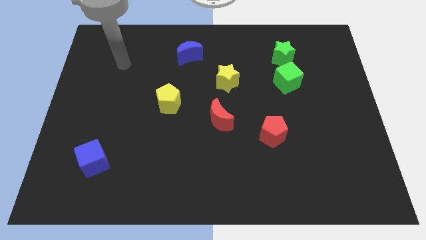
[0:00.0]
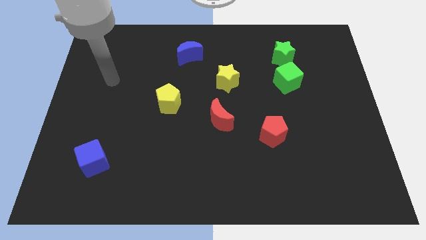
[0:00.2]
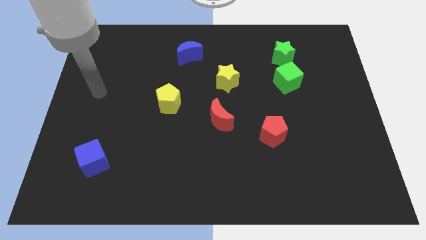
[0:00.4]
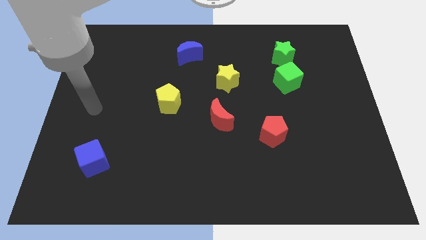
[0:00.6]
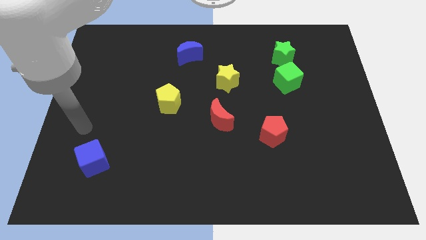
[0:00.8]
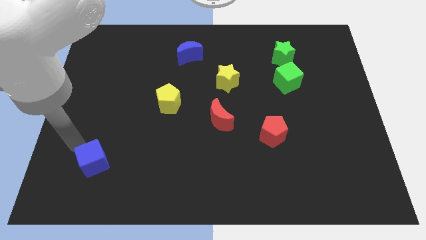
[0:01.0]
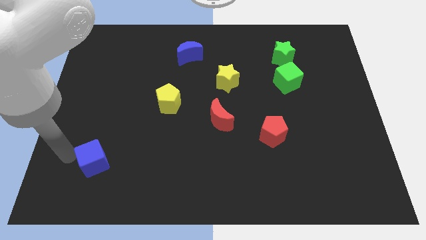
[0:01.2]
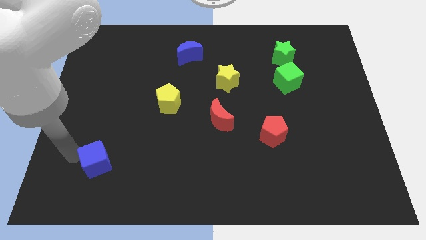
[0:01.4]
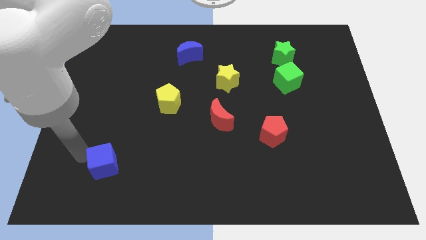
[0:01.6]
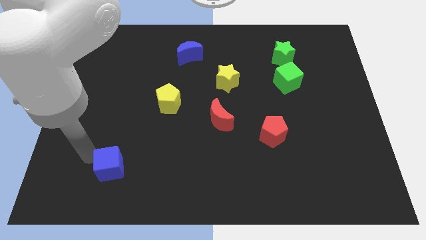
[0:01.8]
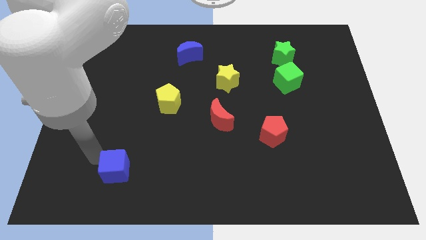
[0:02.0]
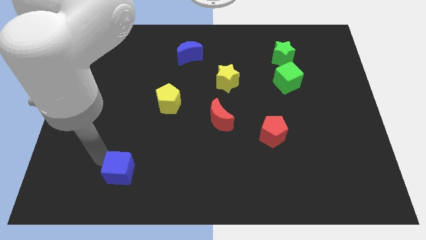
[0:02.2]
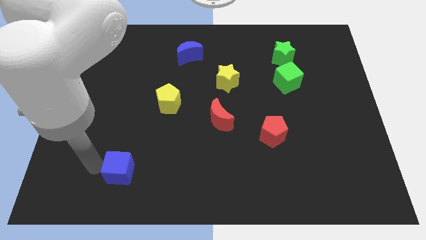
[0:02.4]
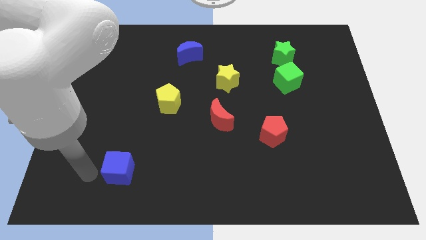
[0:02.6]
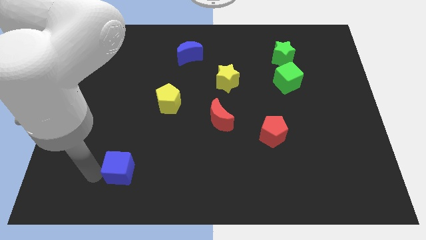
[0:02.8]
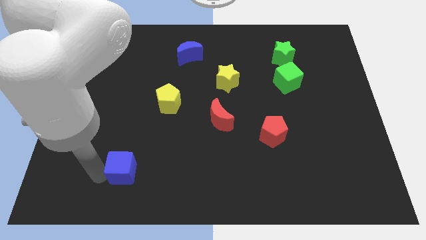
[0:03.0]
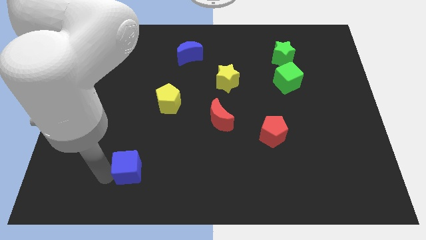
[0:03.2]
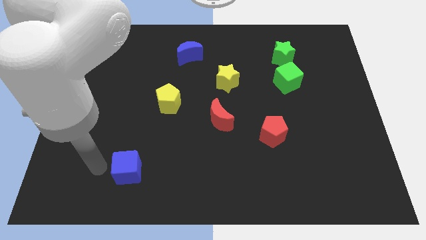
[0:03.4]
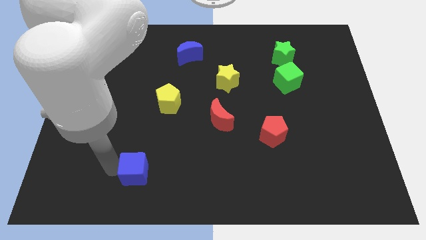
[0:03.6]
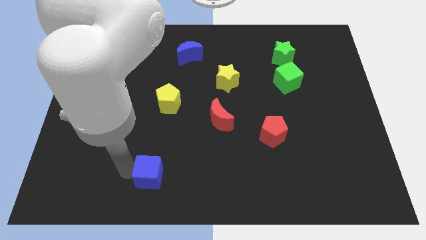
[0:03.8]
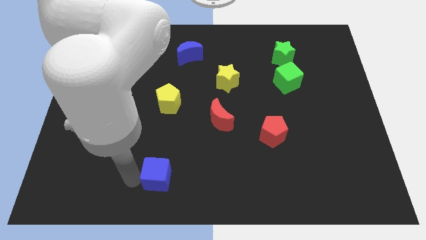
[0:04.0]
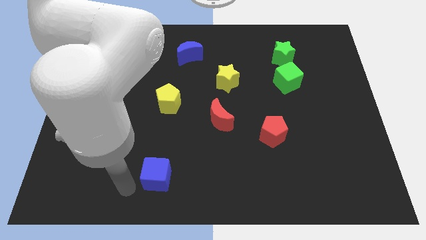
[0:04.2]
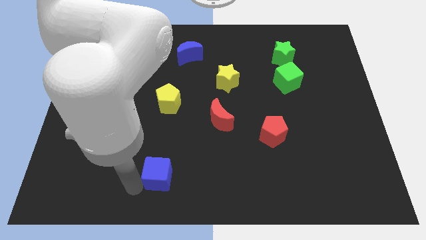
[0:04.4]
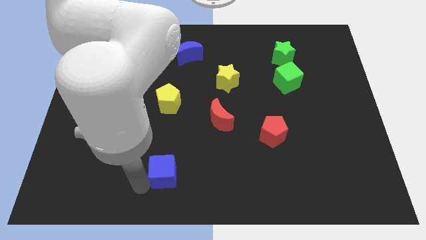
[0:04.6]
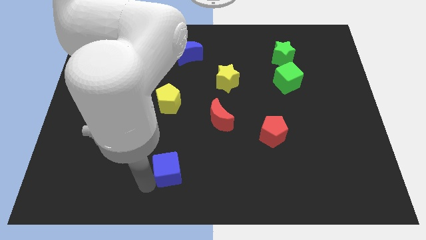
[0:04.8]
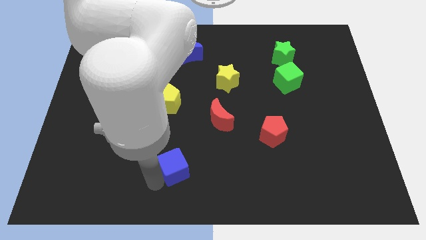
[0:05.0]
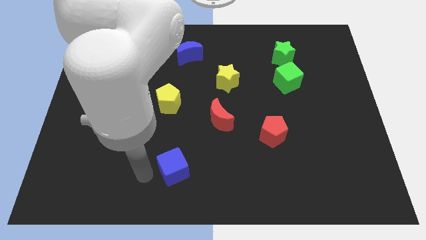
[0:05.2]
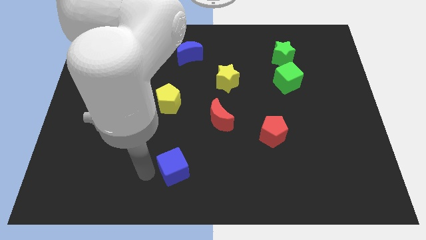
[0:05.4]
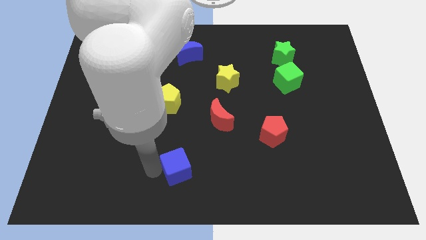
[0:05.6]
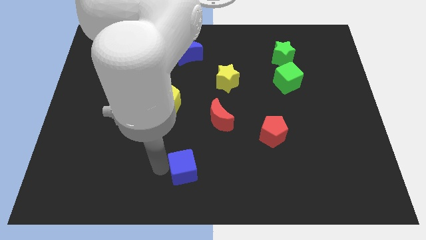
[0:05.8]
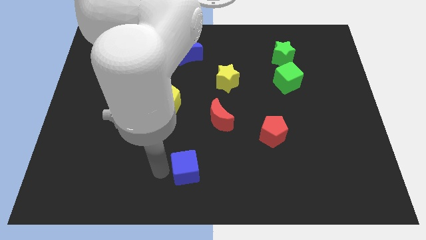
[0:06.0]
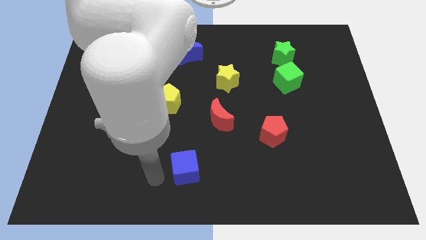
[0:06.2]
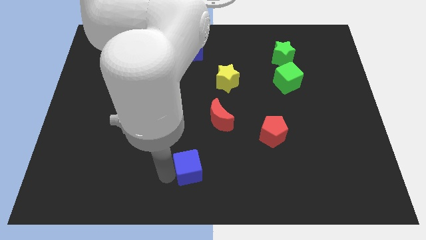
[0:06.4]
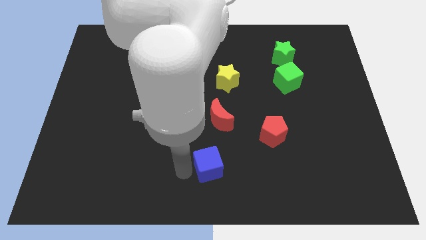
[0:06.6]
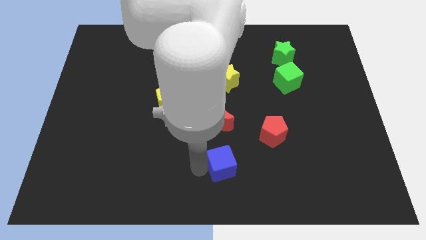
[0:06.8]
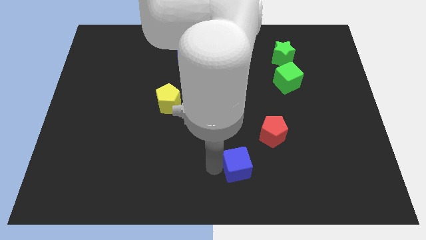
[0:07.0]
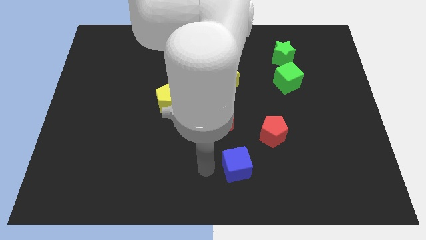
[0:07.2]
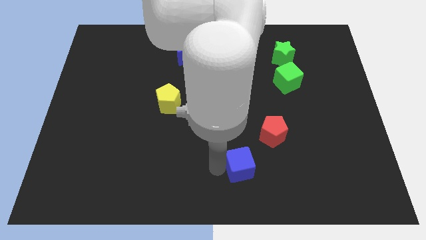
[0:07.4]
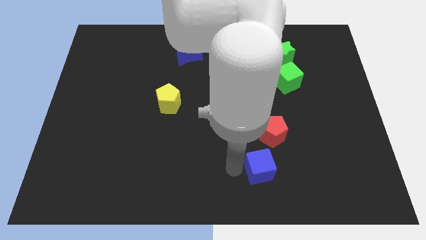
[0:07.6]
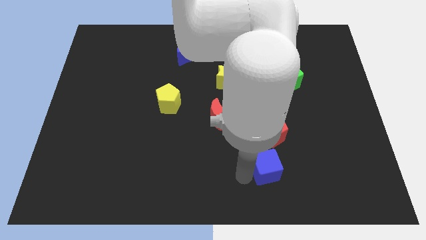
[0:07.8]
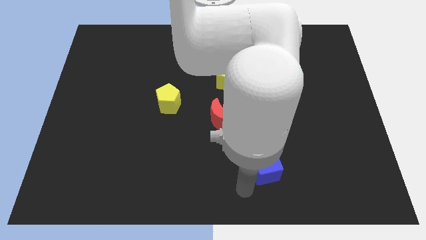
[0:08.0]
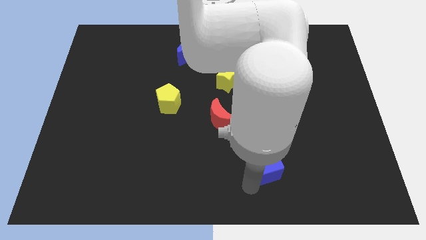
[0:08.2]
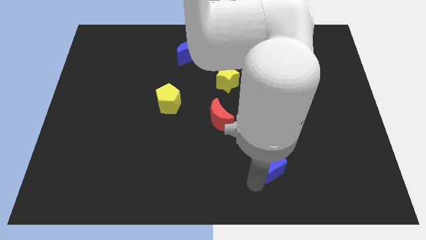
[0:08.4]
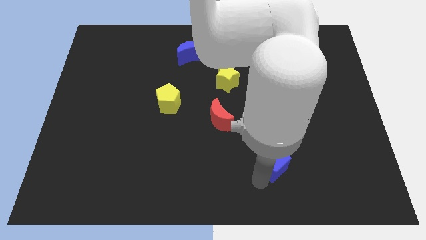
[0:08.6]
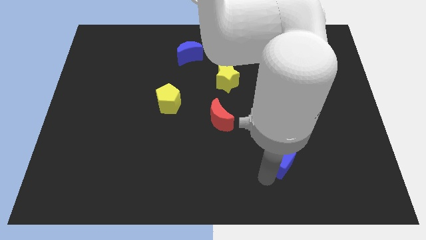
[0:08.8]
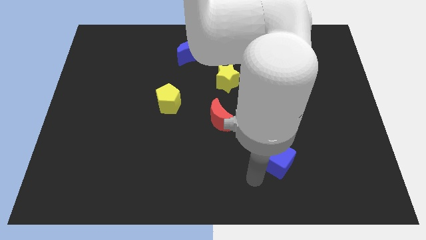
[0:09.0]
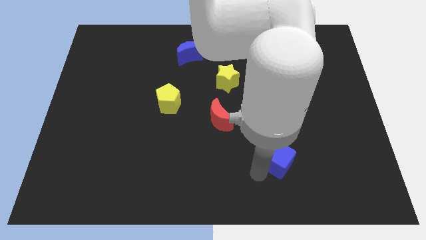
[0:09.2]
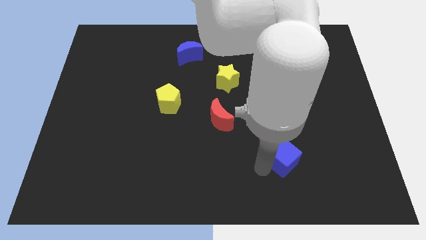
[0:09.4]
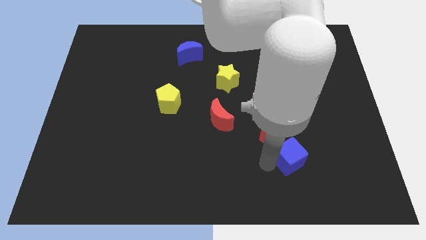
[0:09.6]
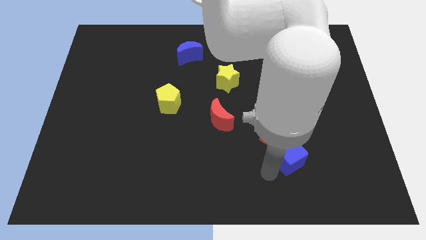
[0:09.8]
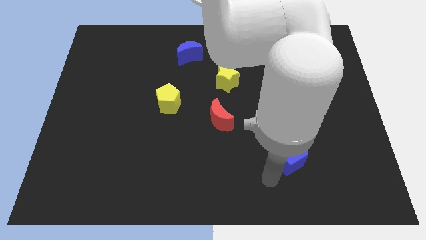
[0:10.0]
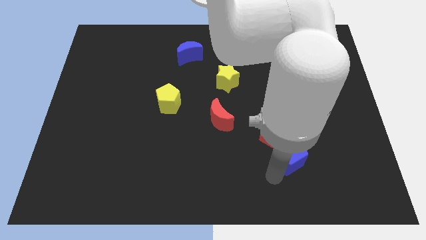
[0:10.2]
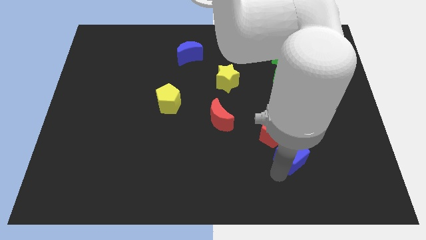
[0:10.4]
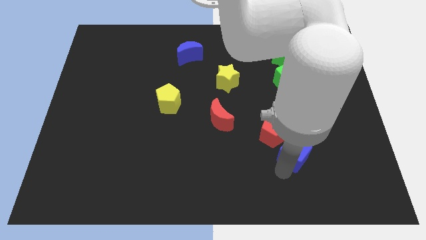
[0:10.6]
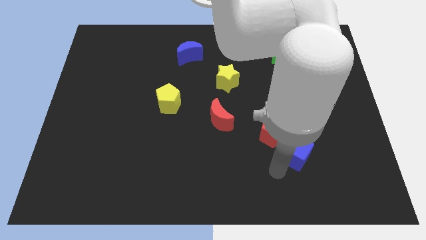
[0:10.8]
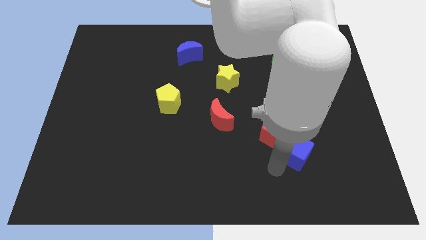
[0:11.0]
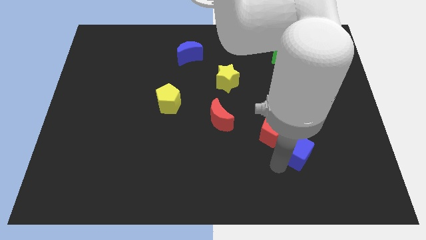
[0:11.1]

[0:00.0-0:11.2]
push the blue cube just right of the red pentagon

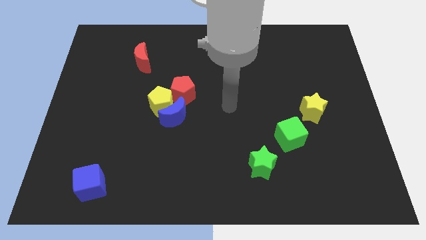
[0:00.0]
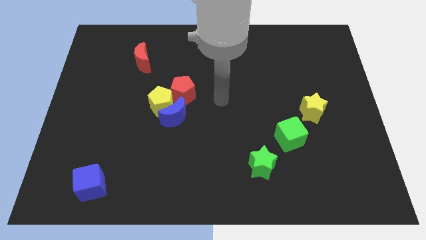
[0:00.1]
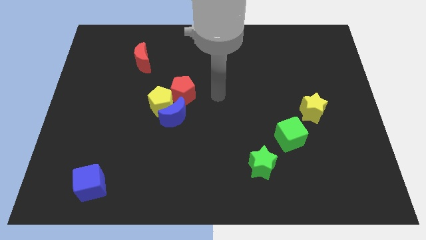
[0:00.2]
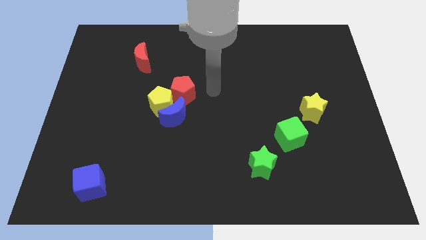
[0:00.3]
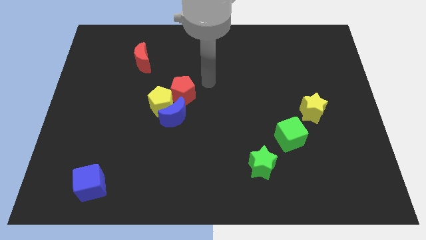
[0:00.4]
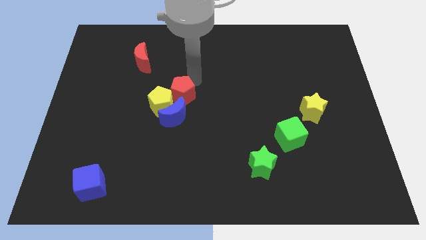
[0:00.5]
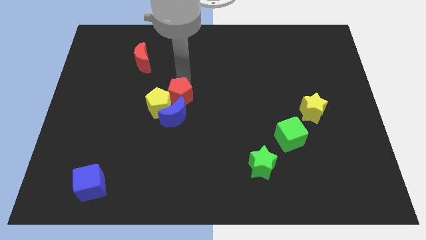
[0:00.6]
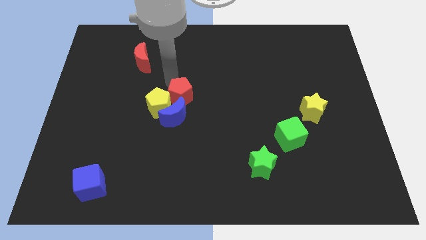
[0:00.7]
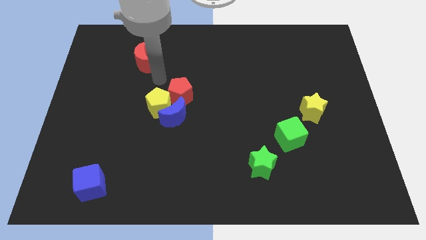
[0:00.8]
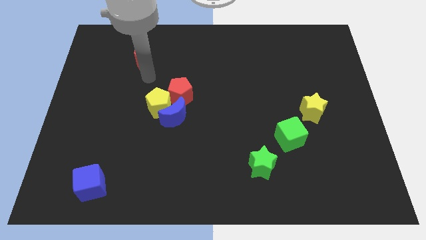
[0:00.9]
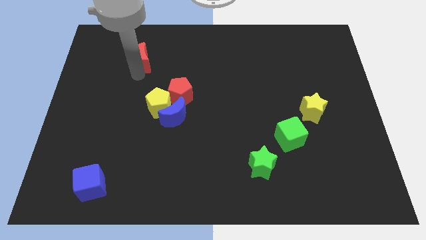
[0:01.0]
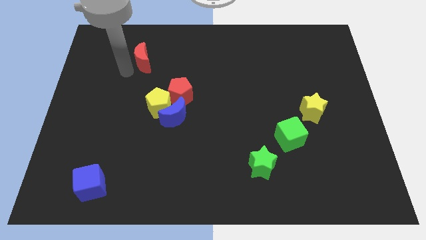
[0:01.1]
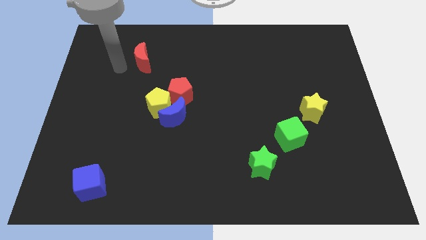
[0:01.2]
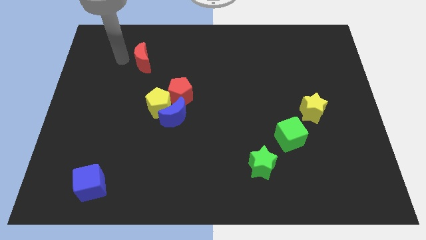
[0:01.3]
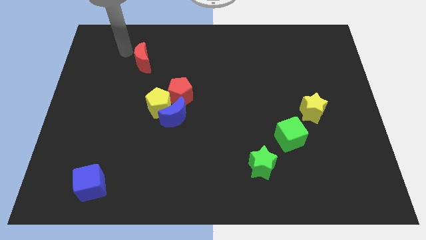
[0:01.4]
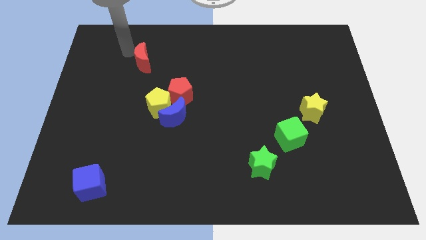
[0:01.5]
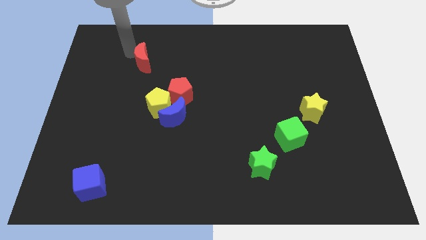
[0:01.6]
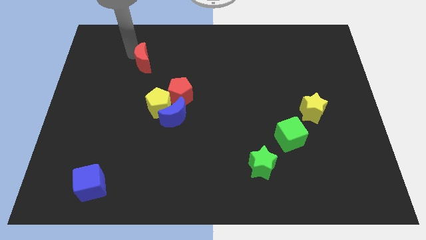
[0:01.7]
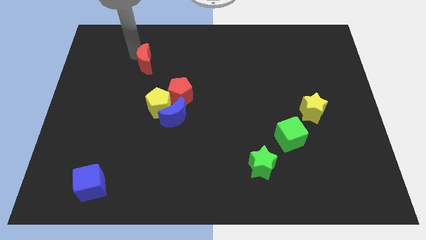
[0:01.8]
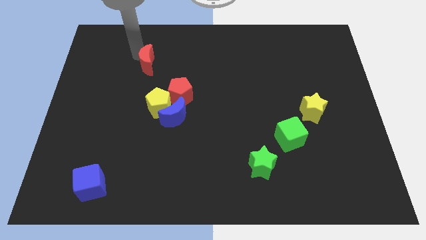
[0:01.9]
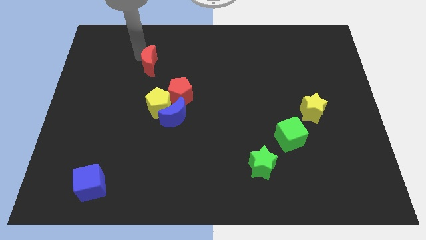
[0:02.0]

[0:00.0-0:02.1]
move the red moon to the top of the yellow pentagon

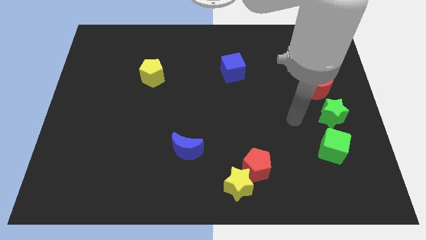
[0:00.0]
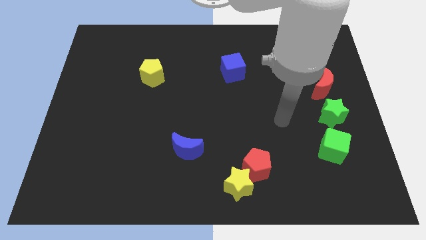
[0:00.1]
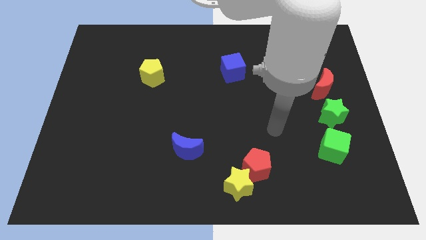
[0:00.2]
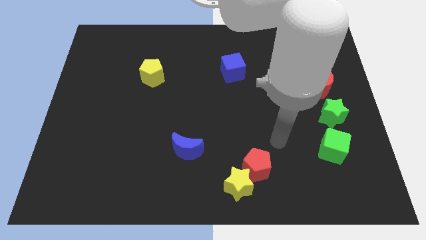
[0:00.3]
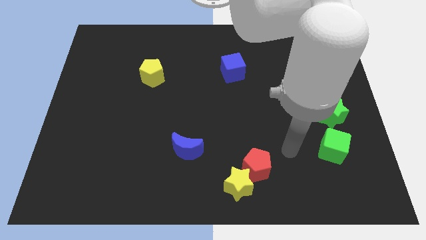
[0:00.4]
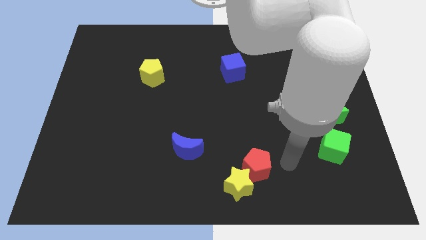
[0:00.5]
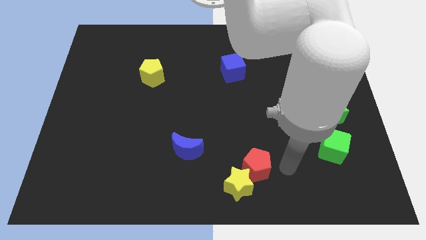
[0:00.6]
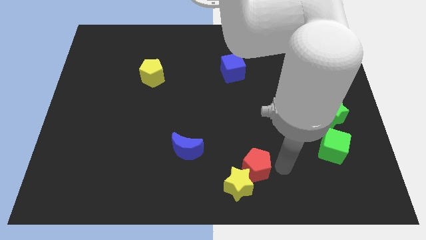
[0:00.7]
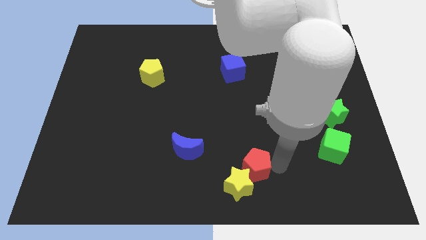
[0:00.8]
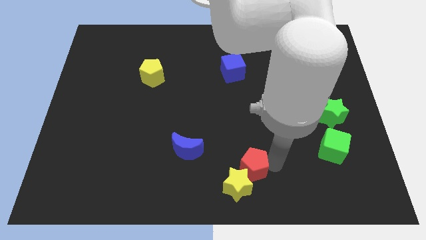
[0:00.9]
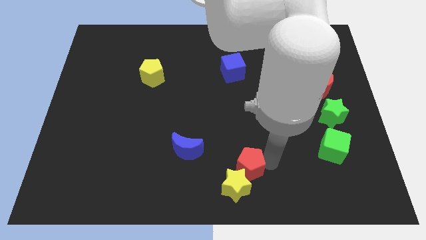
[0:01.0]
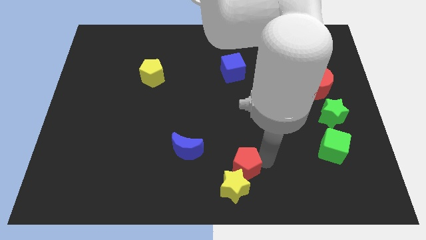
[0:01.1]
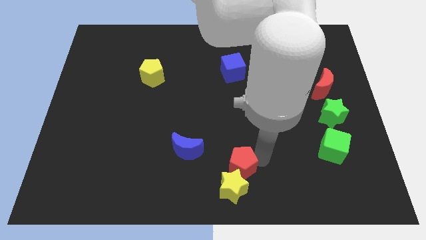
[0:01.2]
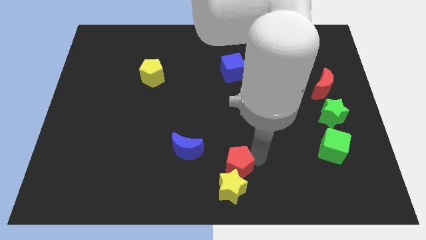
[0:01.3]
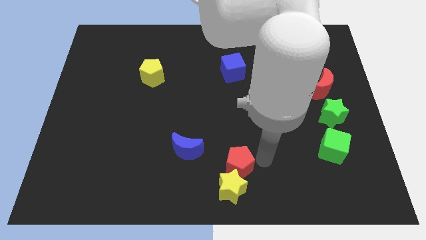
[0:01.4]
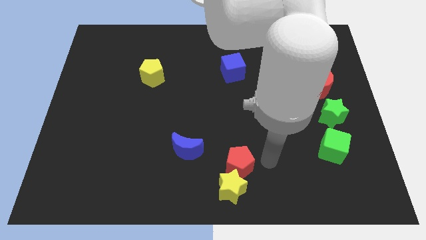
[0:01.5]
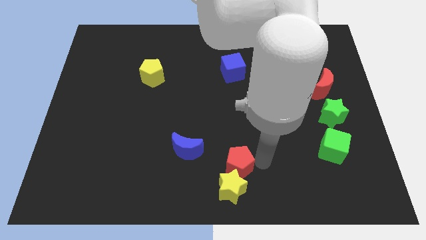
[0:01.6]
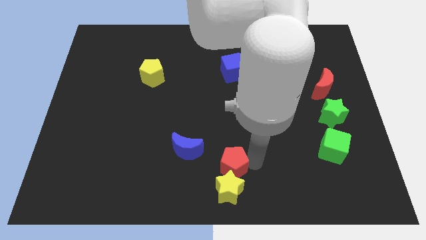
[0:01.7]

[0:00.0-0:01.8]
push the red pentagon to the top left of the yellow star
